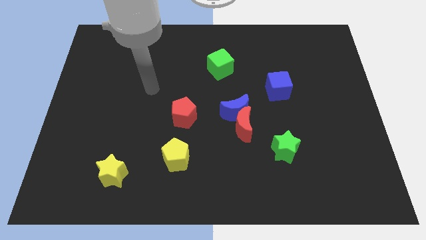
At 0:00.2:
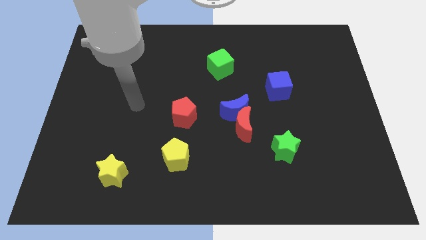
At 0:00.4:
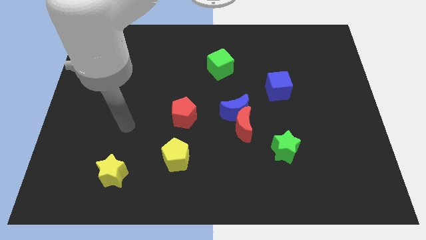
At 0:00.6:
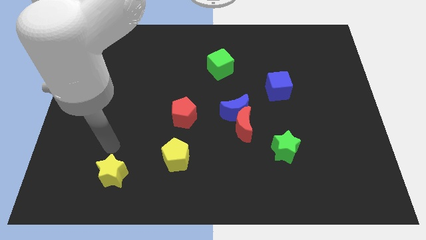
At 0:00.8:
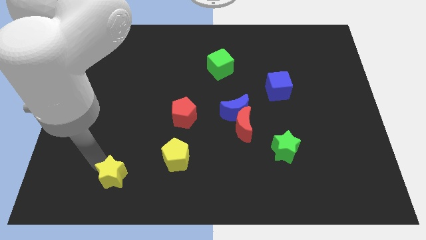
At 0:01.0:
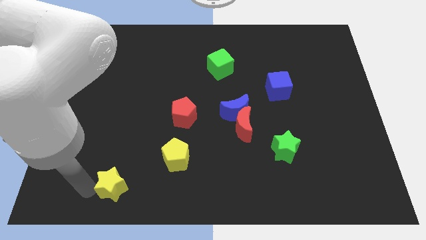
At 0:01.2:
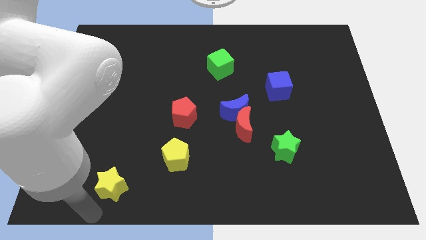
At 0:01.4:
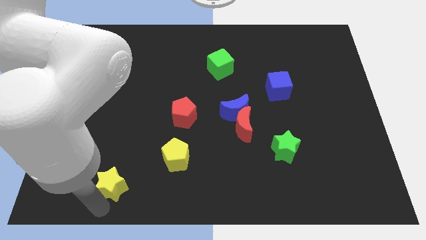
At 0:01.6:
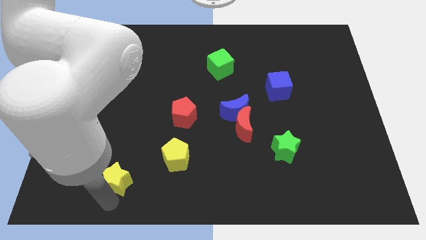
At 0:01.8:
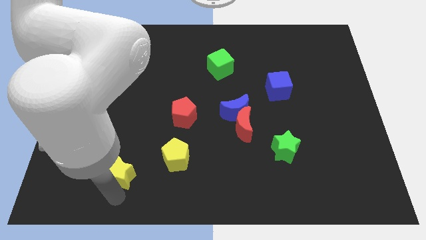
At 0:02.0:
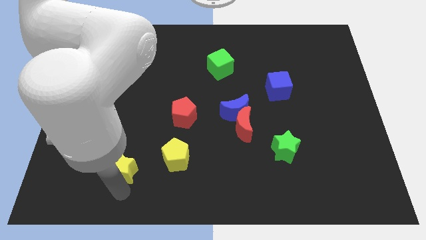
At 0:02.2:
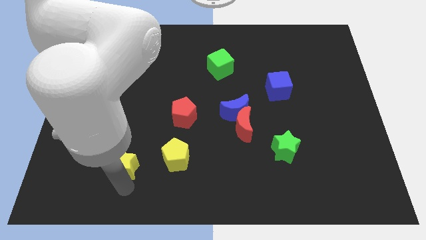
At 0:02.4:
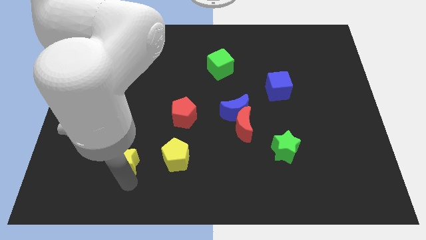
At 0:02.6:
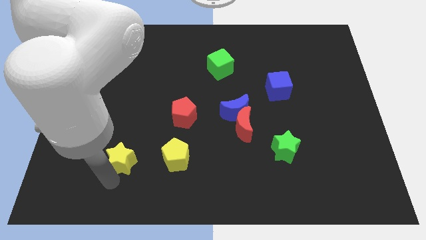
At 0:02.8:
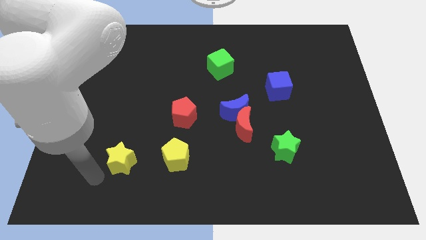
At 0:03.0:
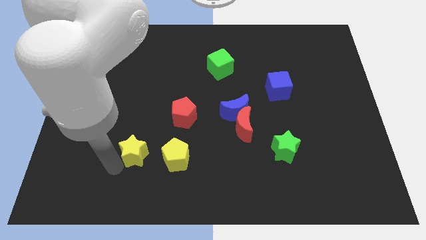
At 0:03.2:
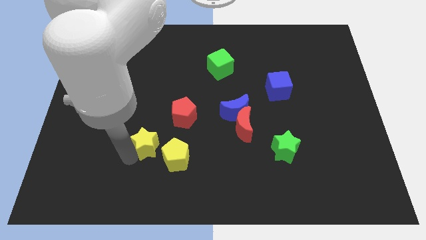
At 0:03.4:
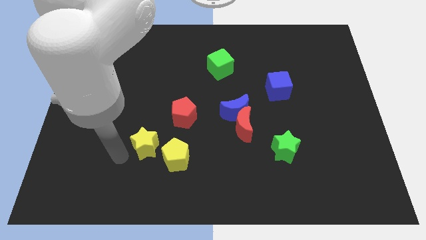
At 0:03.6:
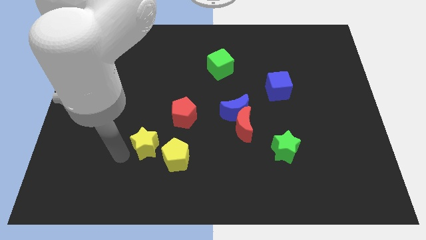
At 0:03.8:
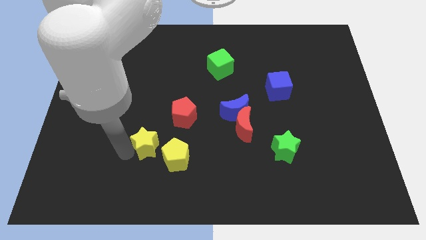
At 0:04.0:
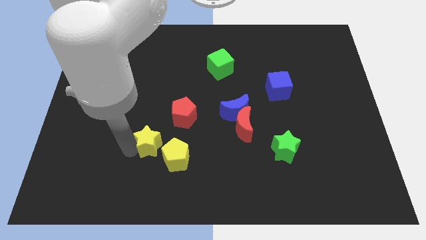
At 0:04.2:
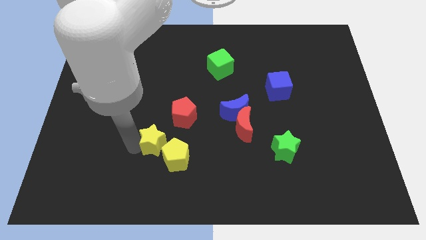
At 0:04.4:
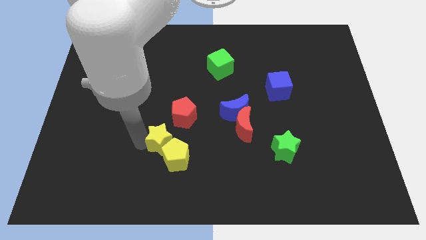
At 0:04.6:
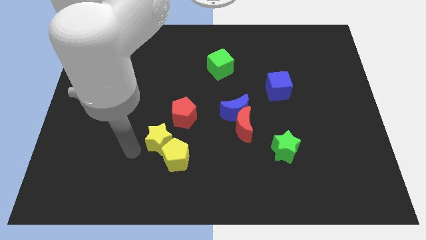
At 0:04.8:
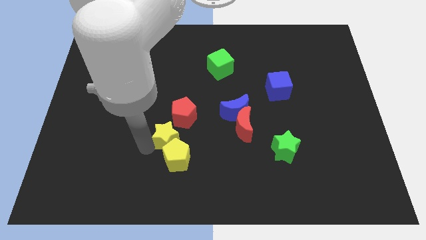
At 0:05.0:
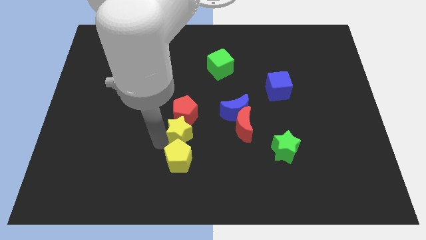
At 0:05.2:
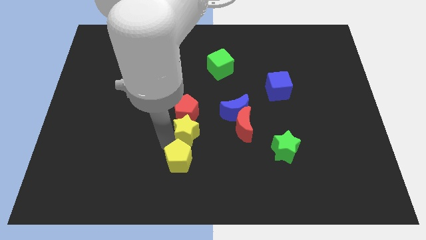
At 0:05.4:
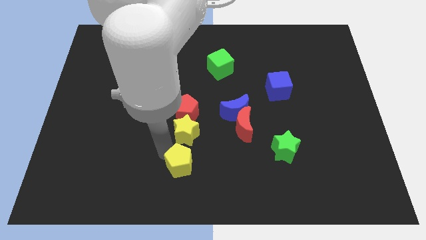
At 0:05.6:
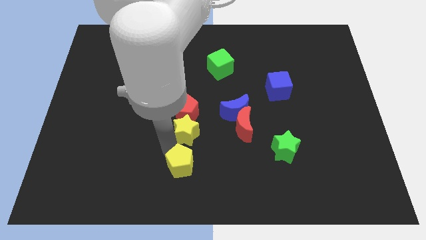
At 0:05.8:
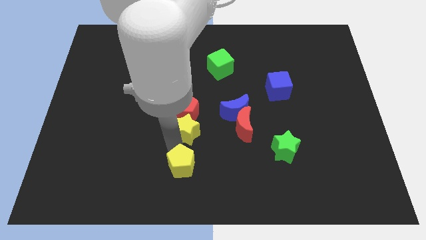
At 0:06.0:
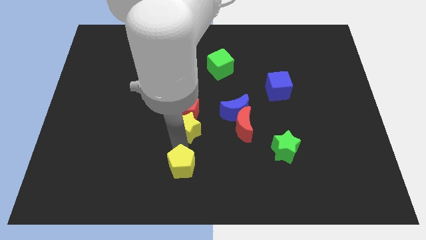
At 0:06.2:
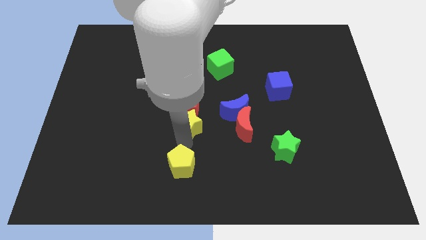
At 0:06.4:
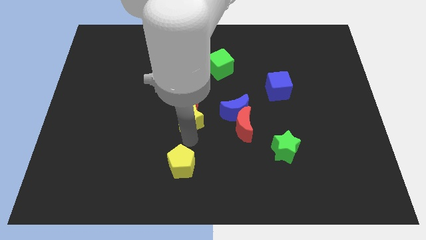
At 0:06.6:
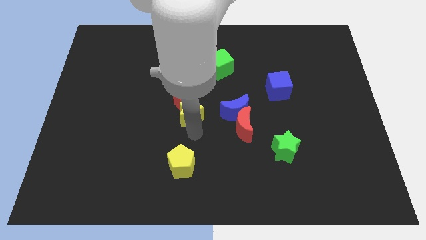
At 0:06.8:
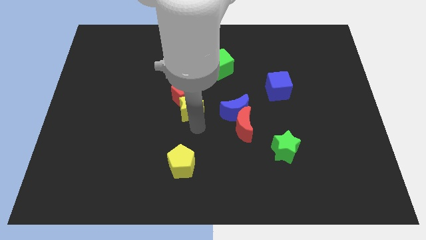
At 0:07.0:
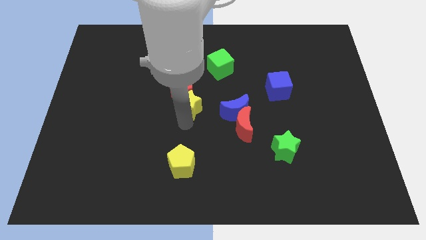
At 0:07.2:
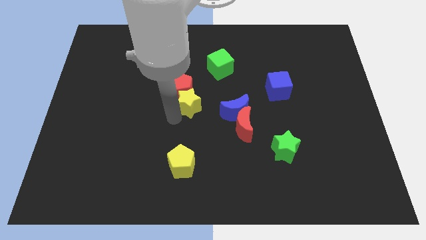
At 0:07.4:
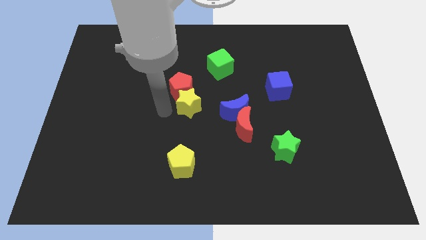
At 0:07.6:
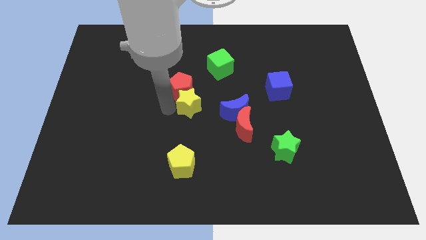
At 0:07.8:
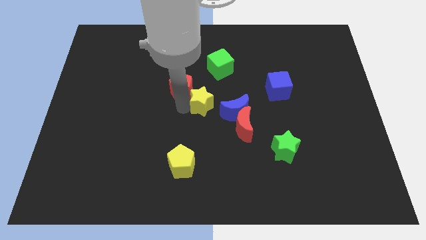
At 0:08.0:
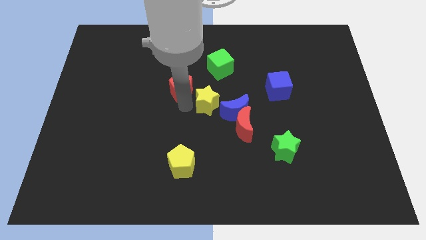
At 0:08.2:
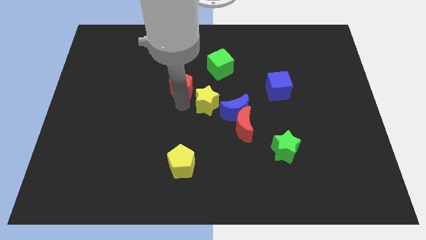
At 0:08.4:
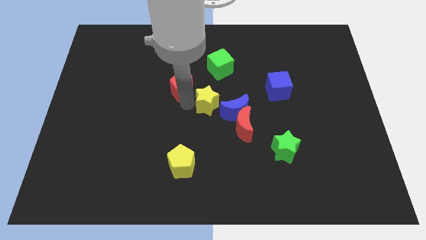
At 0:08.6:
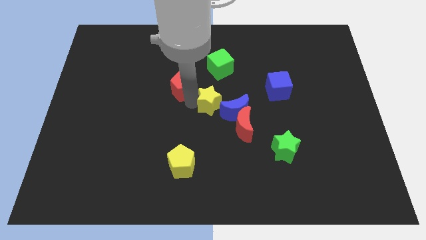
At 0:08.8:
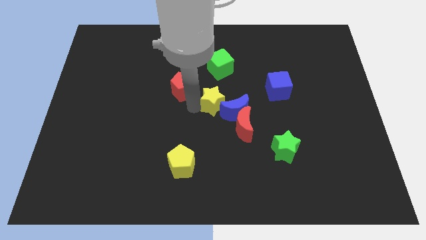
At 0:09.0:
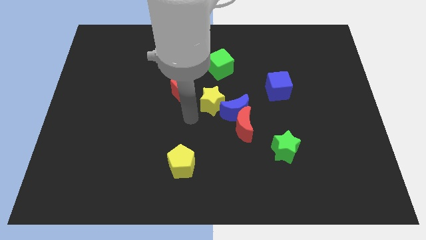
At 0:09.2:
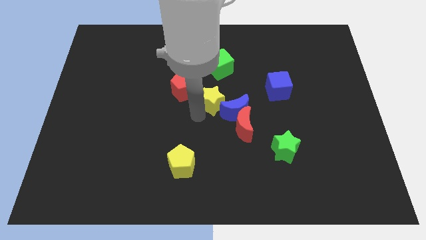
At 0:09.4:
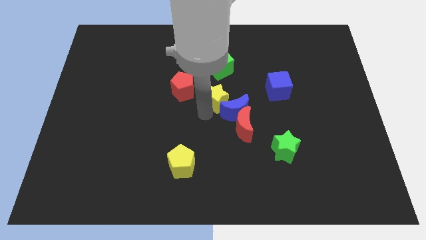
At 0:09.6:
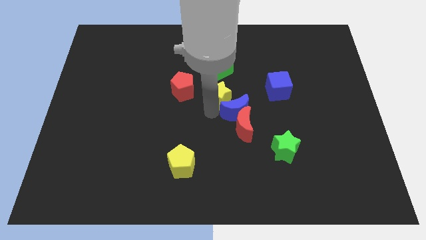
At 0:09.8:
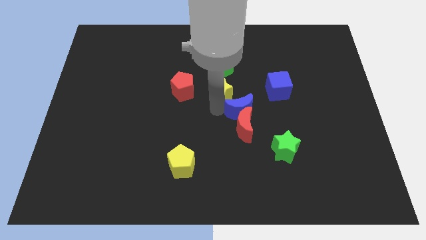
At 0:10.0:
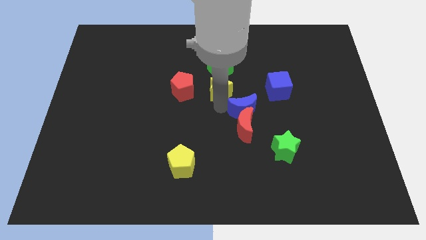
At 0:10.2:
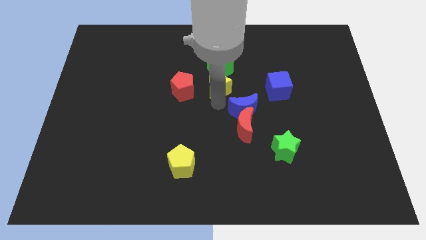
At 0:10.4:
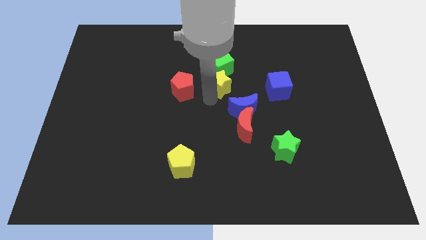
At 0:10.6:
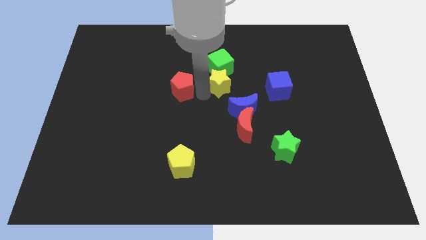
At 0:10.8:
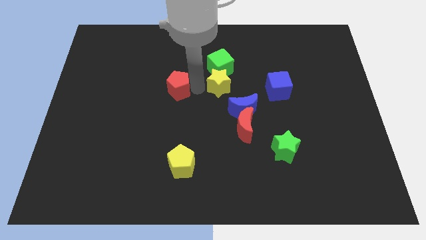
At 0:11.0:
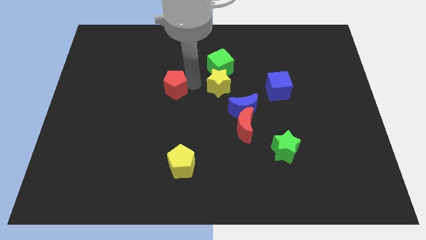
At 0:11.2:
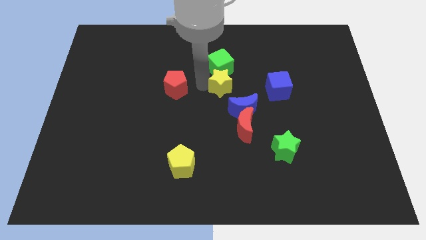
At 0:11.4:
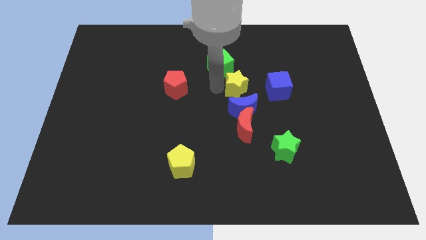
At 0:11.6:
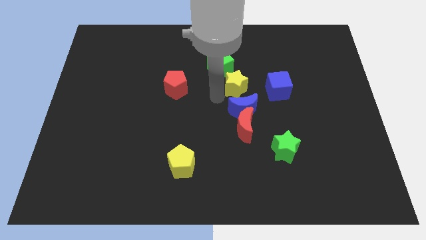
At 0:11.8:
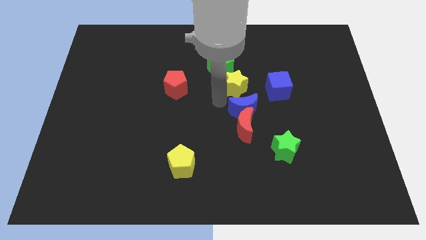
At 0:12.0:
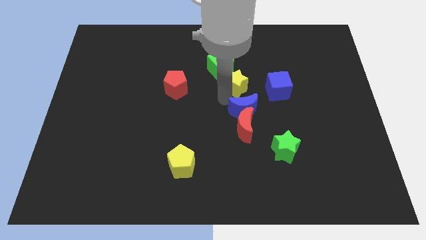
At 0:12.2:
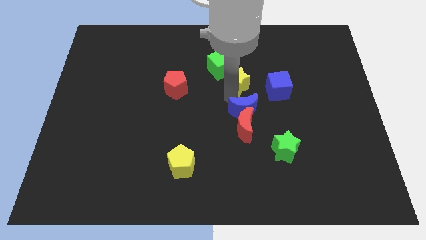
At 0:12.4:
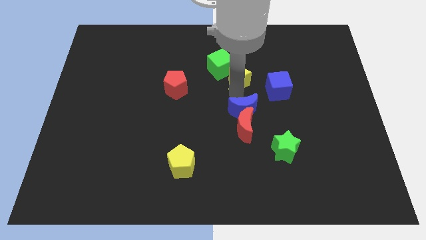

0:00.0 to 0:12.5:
put the yellow star to the top left side of the blue cube

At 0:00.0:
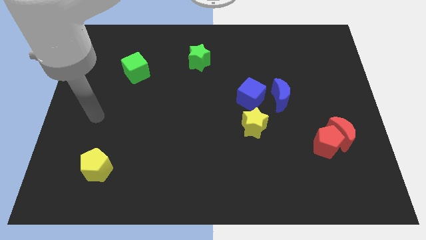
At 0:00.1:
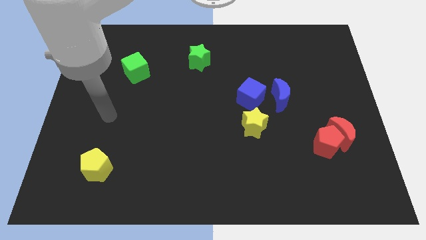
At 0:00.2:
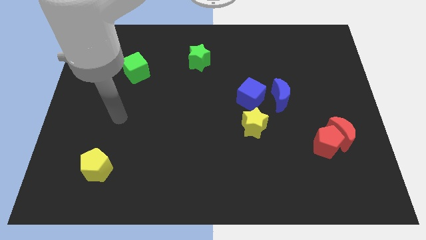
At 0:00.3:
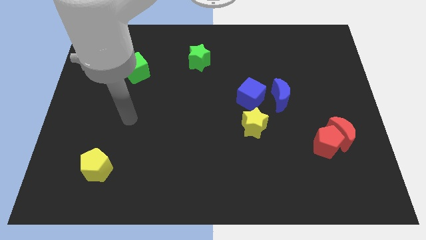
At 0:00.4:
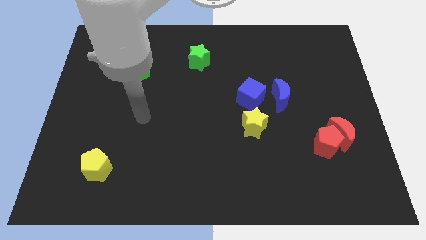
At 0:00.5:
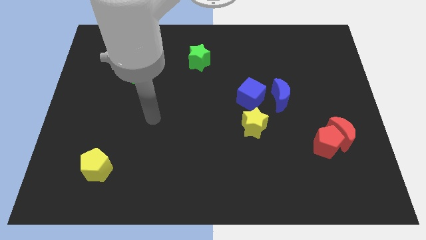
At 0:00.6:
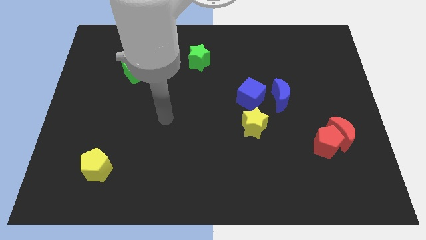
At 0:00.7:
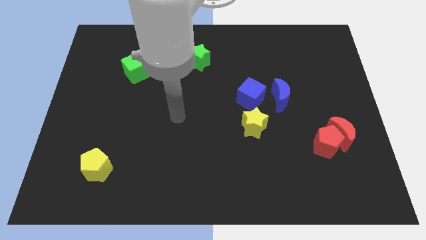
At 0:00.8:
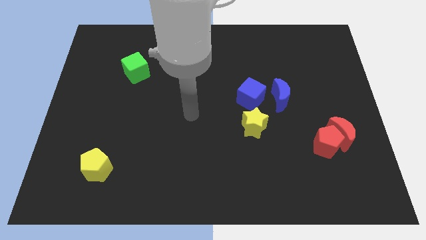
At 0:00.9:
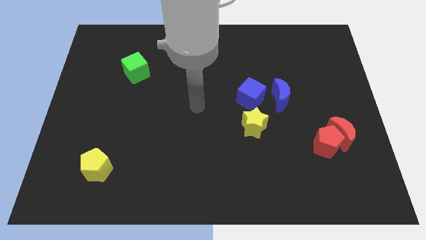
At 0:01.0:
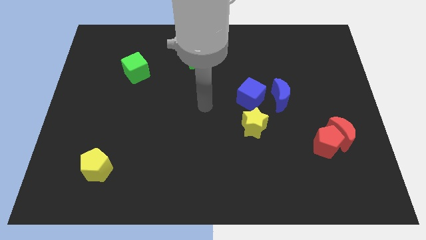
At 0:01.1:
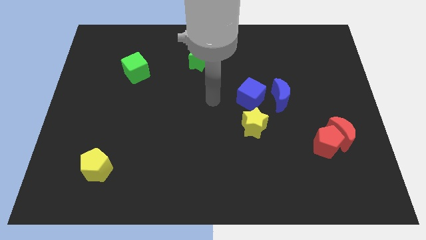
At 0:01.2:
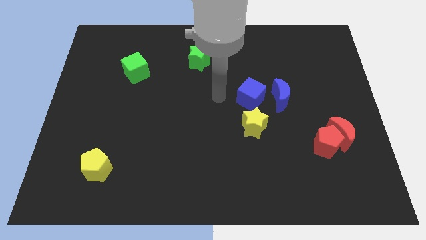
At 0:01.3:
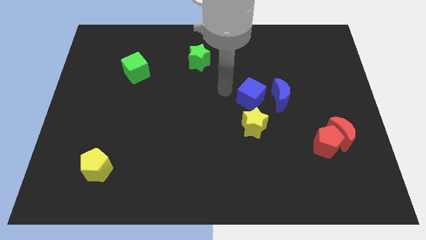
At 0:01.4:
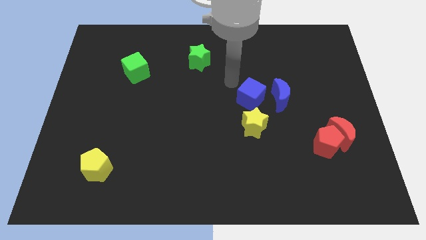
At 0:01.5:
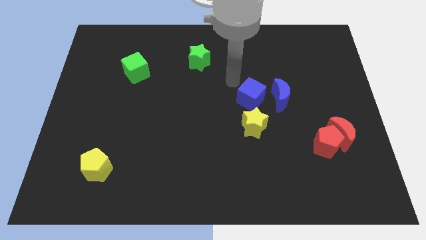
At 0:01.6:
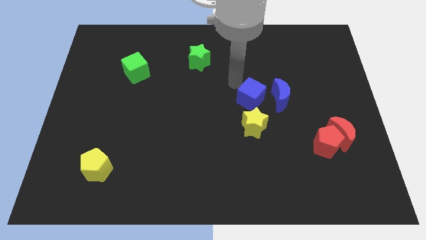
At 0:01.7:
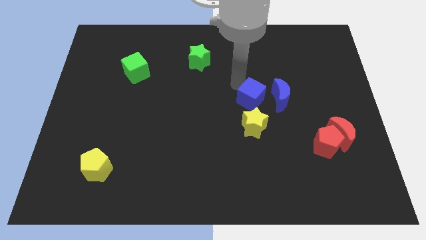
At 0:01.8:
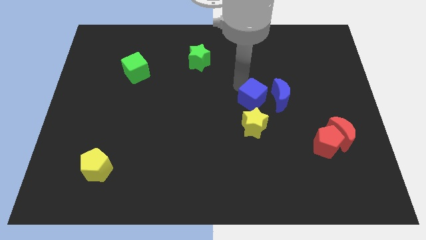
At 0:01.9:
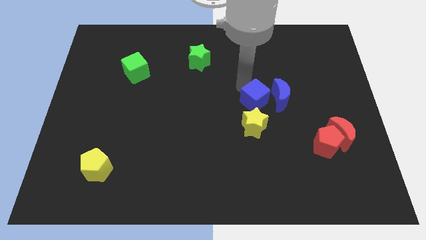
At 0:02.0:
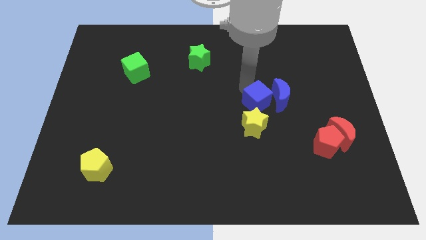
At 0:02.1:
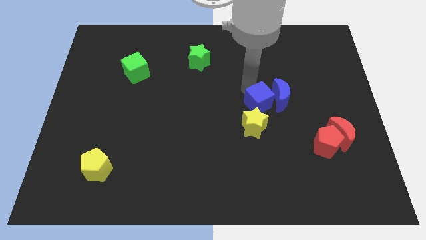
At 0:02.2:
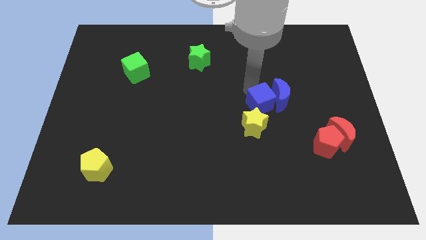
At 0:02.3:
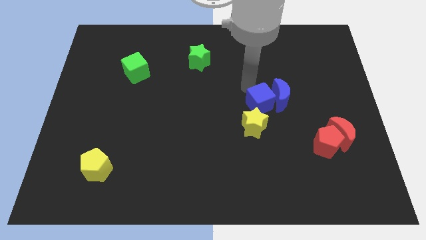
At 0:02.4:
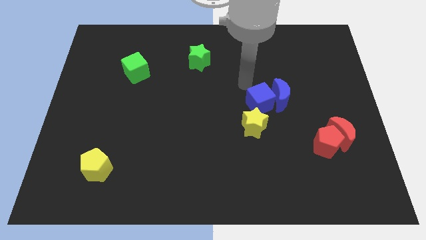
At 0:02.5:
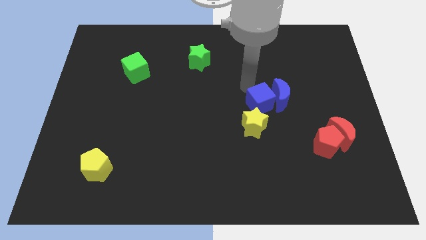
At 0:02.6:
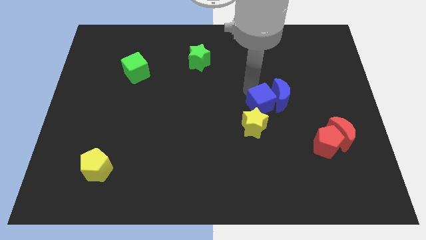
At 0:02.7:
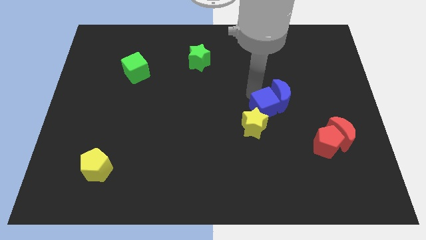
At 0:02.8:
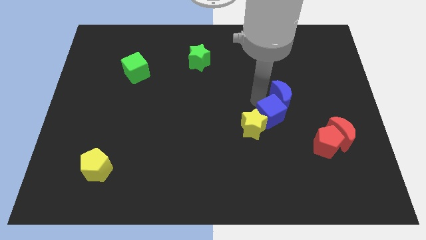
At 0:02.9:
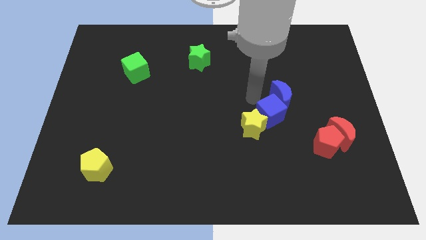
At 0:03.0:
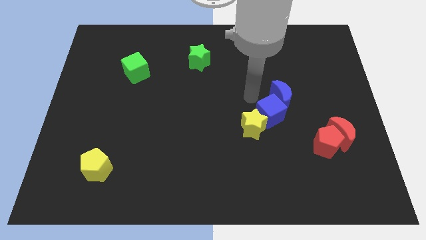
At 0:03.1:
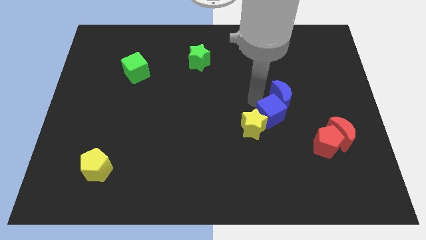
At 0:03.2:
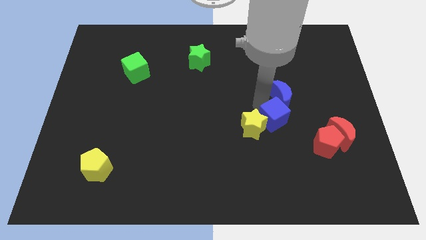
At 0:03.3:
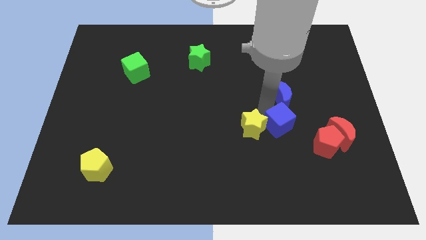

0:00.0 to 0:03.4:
push the blue cube left of the red moon
